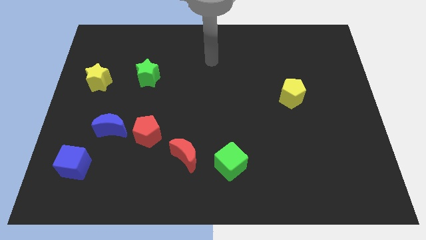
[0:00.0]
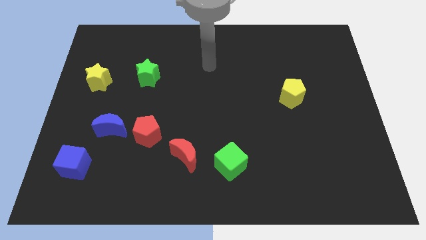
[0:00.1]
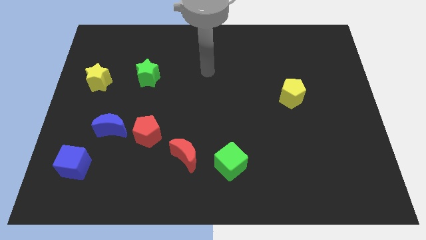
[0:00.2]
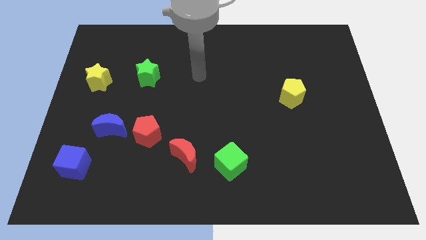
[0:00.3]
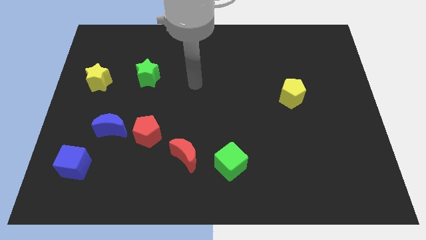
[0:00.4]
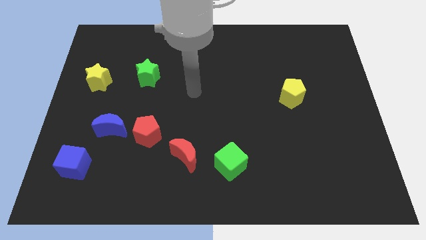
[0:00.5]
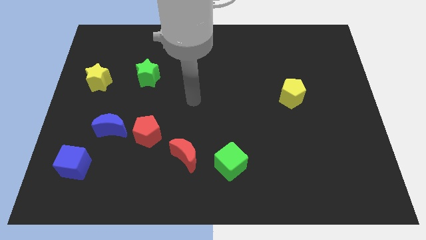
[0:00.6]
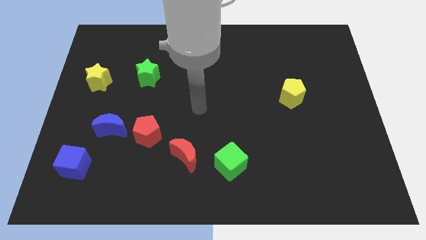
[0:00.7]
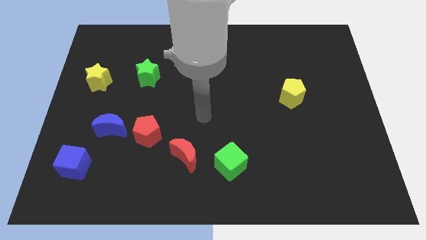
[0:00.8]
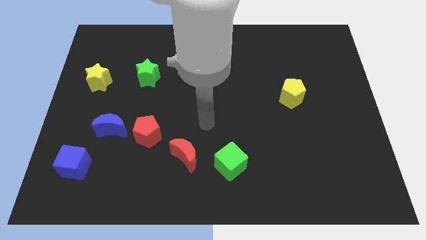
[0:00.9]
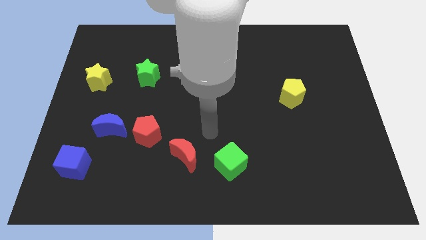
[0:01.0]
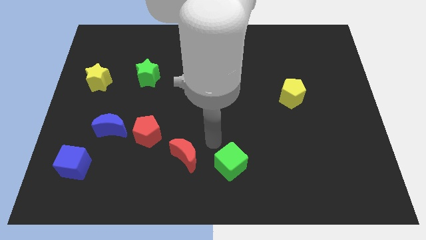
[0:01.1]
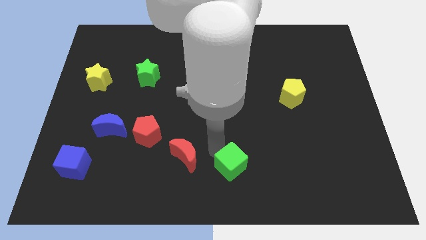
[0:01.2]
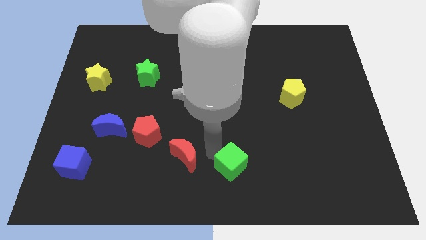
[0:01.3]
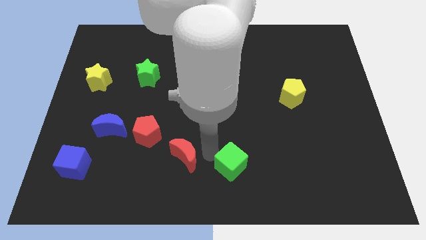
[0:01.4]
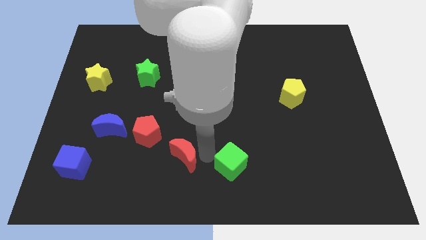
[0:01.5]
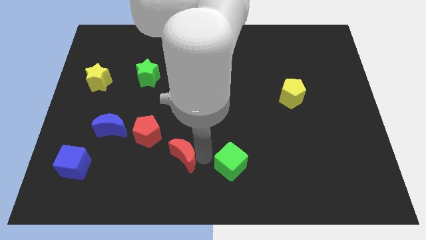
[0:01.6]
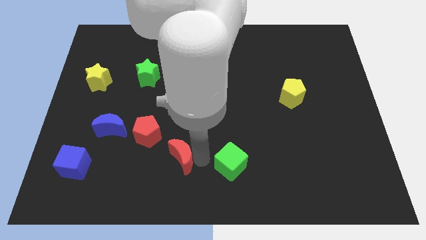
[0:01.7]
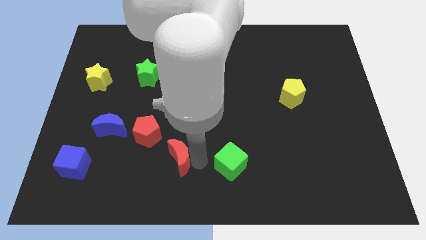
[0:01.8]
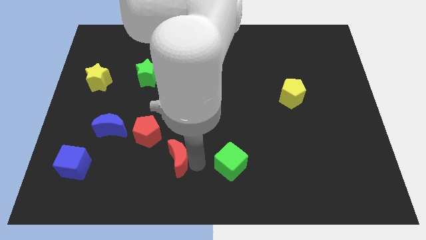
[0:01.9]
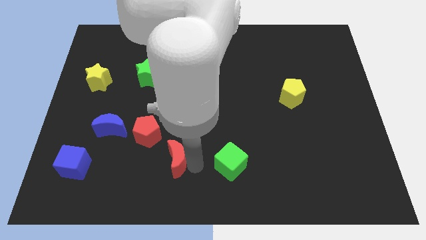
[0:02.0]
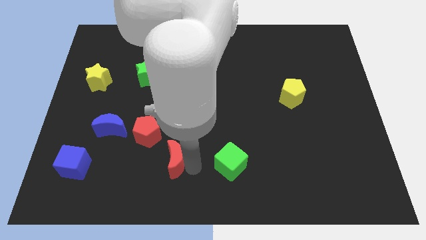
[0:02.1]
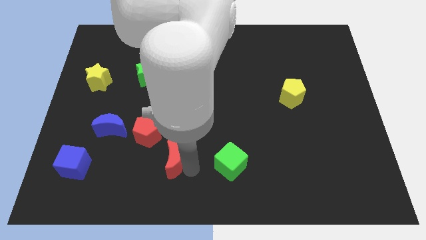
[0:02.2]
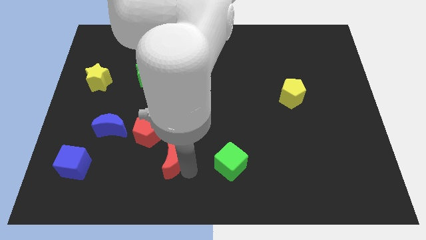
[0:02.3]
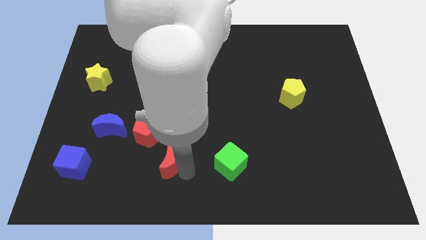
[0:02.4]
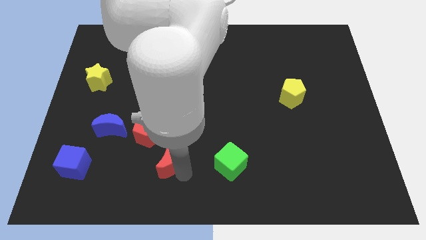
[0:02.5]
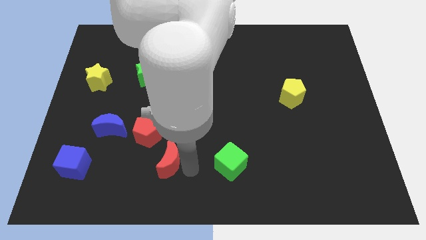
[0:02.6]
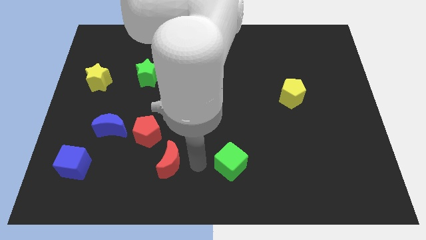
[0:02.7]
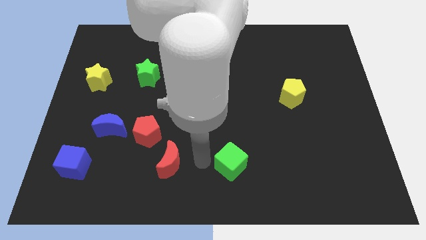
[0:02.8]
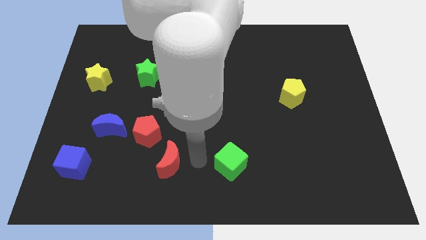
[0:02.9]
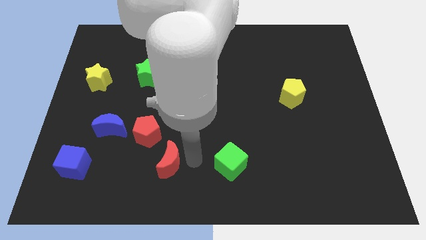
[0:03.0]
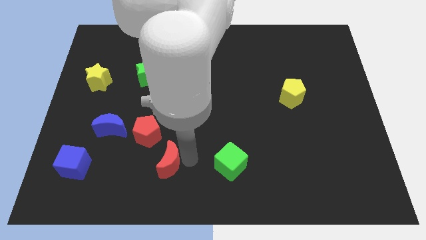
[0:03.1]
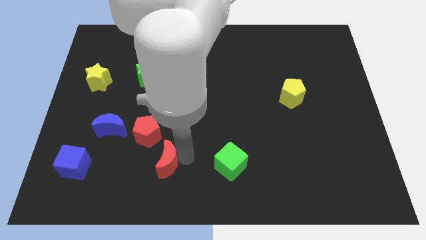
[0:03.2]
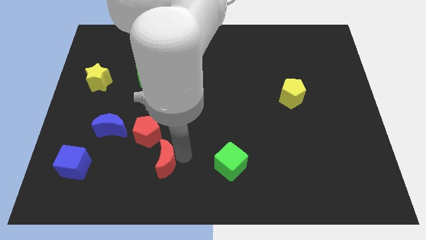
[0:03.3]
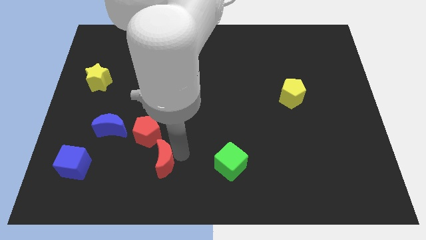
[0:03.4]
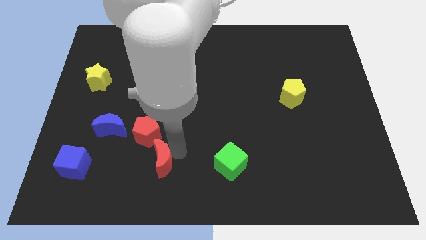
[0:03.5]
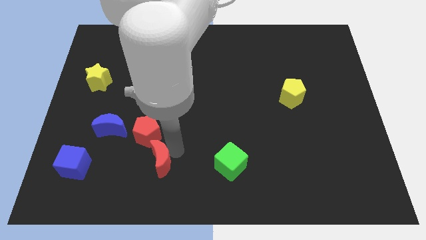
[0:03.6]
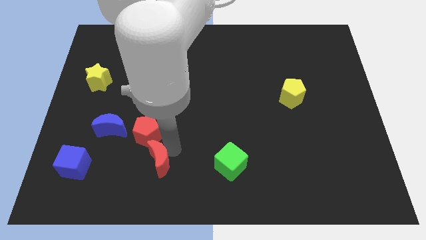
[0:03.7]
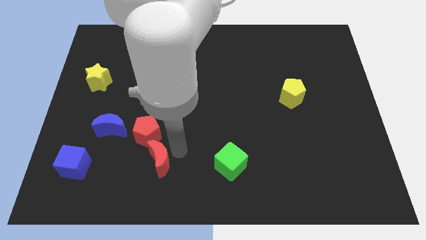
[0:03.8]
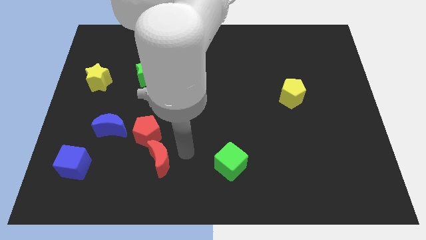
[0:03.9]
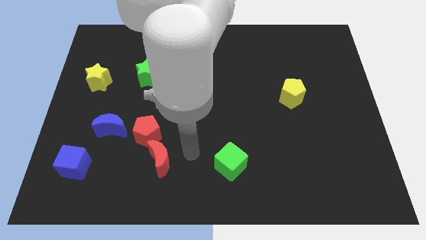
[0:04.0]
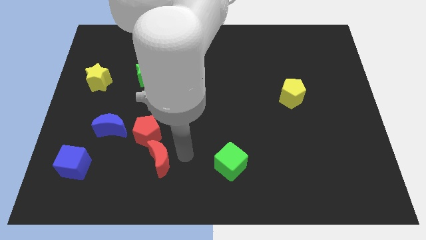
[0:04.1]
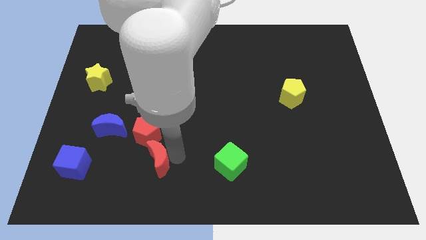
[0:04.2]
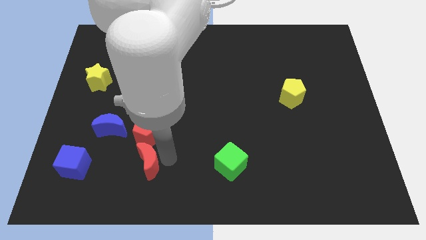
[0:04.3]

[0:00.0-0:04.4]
slightly move the red moon to the left

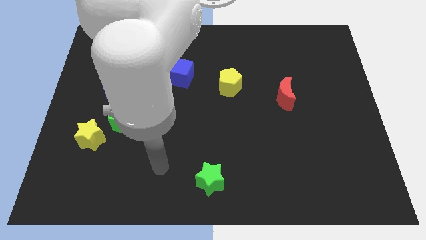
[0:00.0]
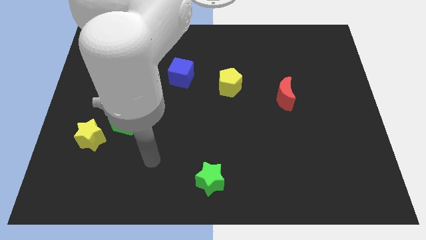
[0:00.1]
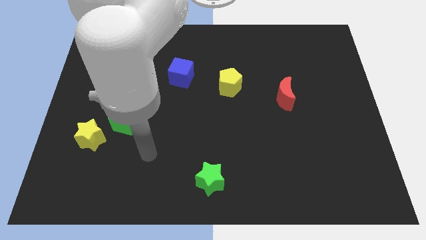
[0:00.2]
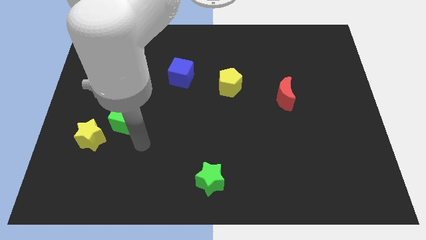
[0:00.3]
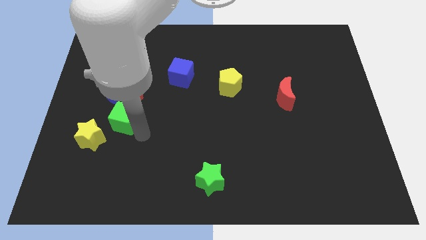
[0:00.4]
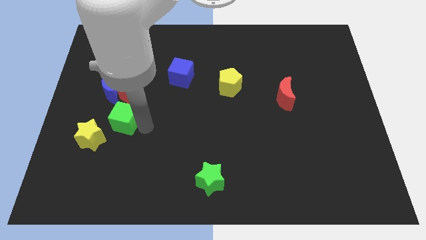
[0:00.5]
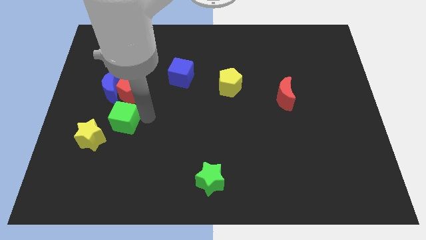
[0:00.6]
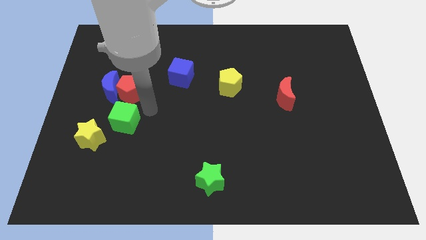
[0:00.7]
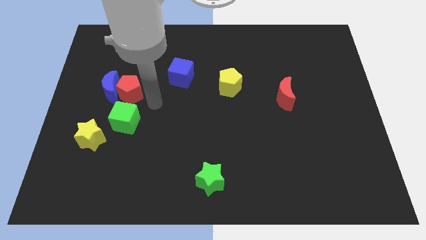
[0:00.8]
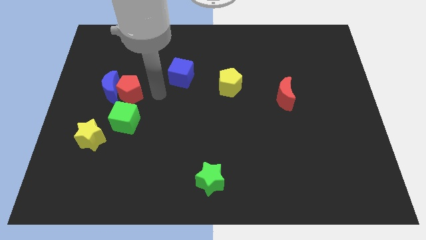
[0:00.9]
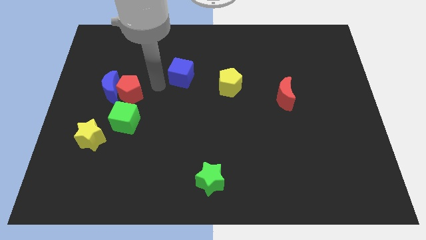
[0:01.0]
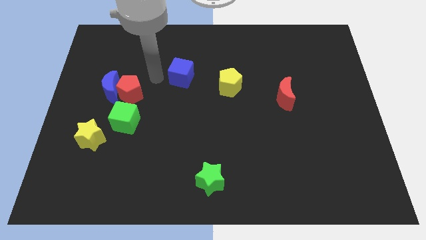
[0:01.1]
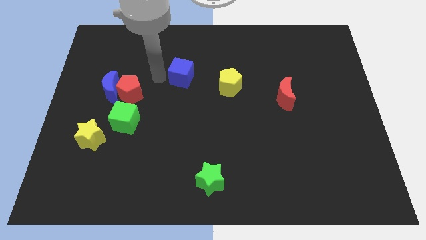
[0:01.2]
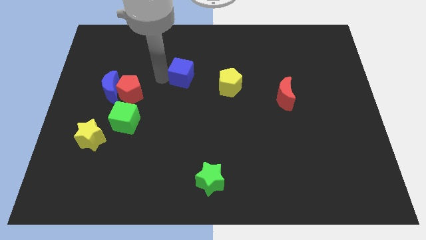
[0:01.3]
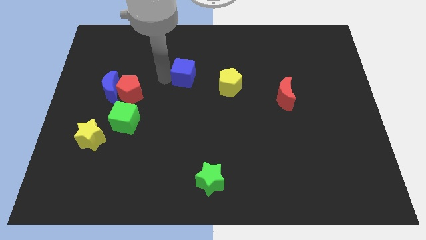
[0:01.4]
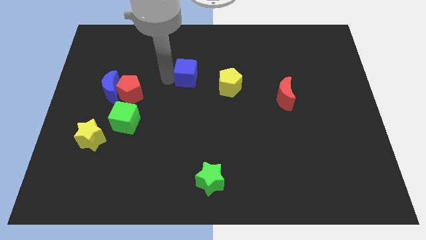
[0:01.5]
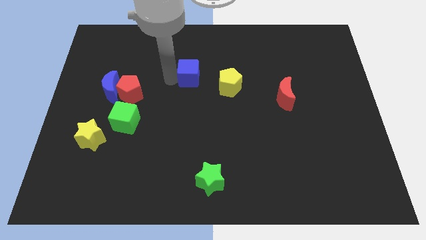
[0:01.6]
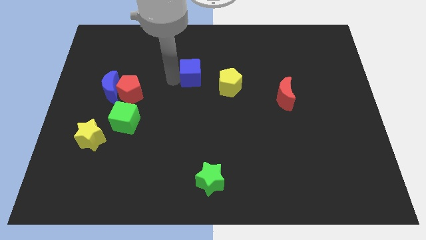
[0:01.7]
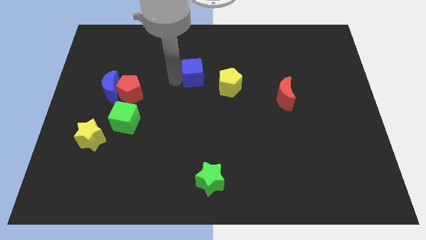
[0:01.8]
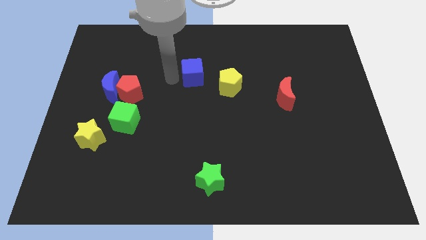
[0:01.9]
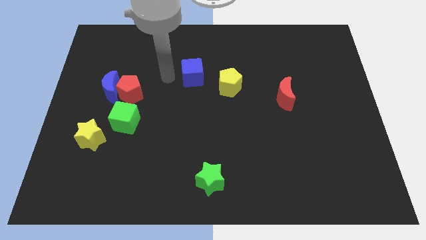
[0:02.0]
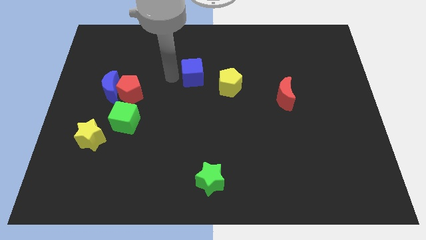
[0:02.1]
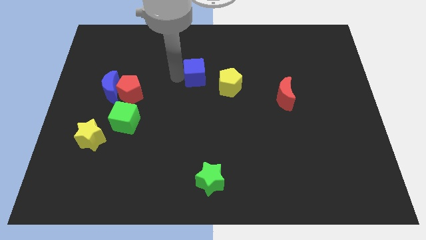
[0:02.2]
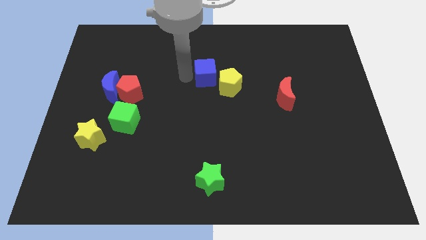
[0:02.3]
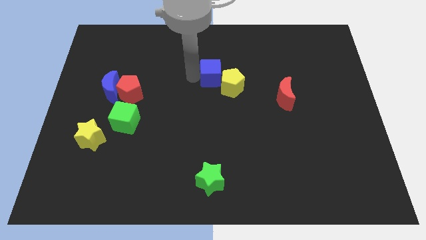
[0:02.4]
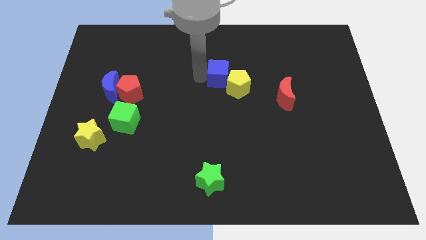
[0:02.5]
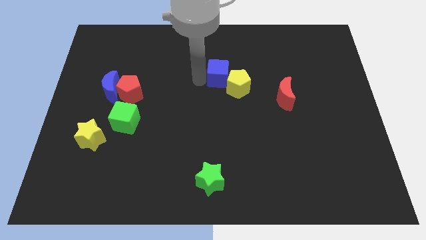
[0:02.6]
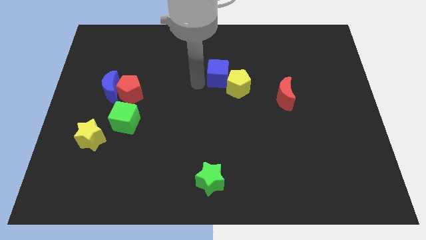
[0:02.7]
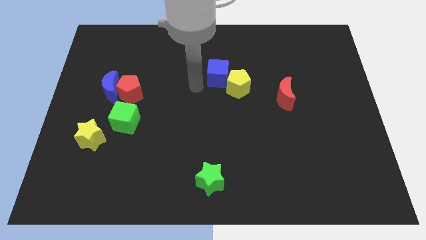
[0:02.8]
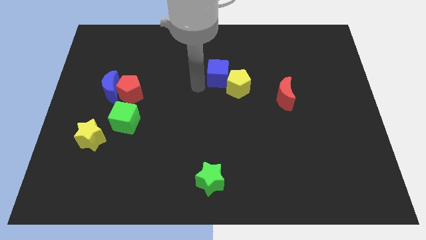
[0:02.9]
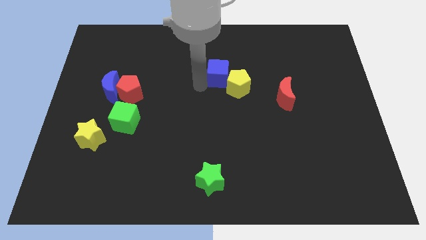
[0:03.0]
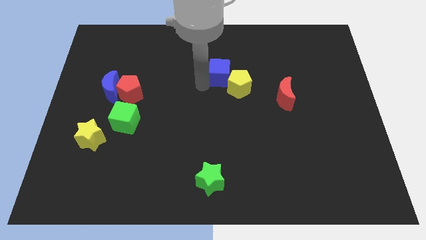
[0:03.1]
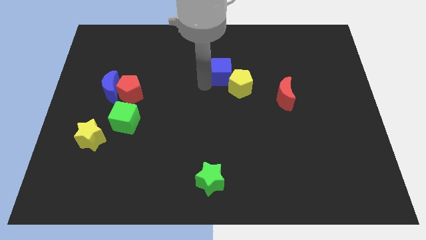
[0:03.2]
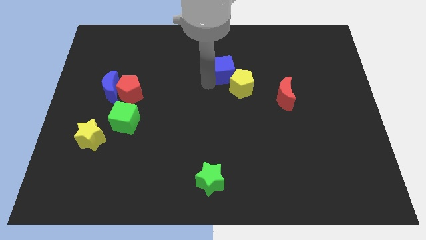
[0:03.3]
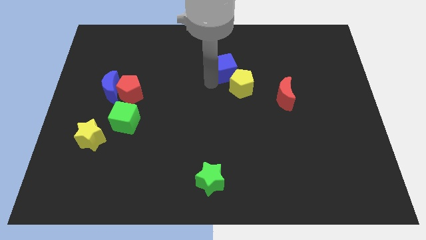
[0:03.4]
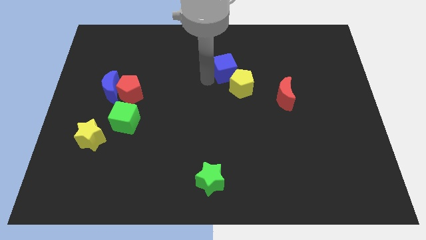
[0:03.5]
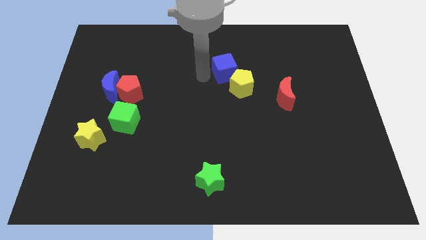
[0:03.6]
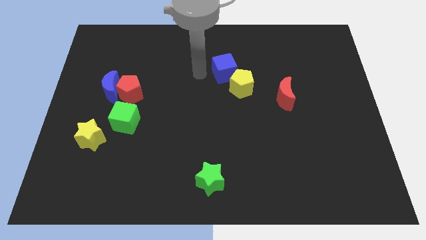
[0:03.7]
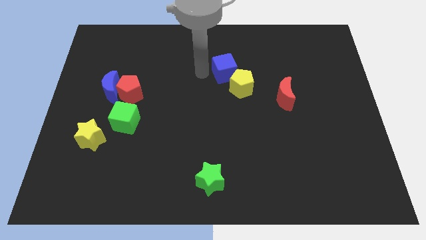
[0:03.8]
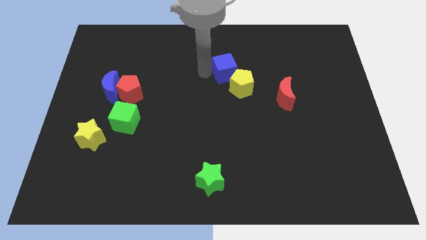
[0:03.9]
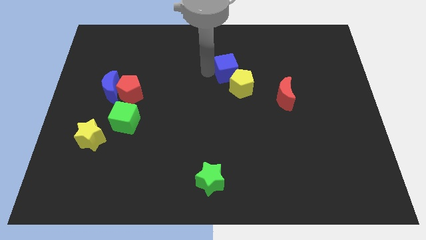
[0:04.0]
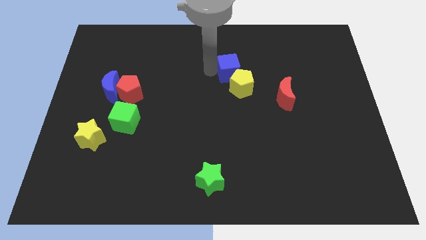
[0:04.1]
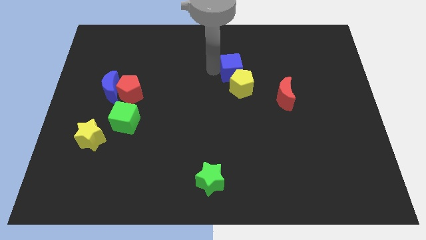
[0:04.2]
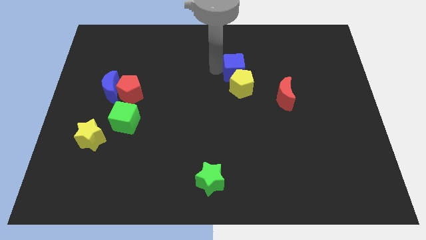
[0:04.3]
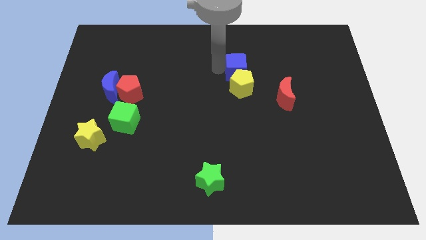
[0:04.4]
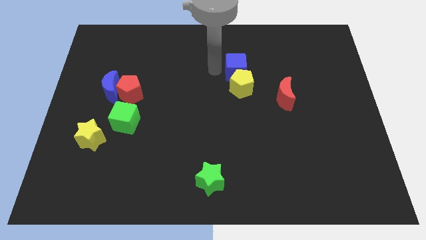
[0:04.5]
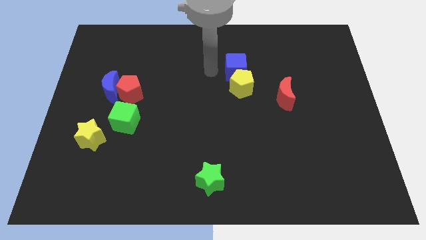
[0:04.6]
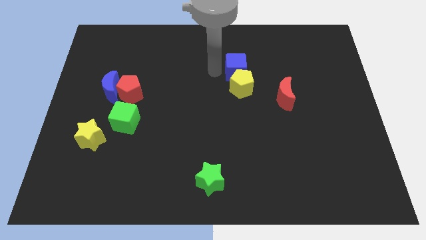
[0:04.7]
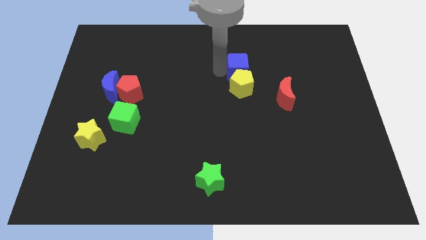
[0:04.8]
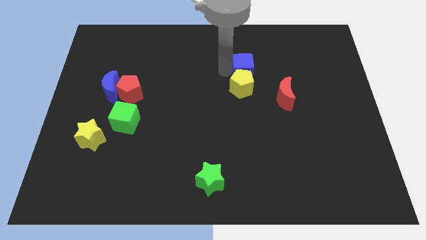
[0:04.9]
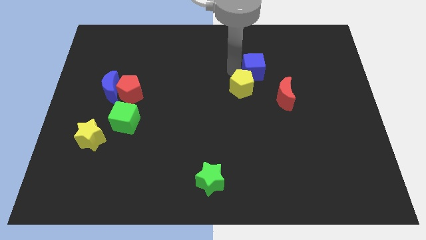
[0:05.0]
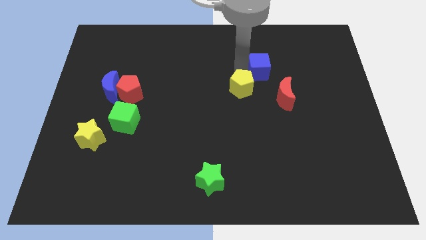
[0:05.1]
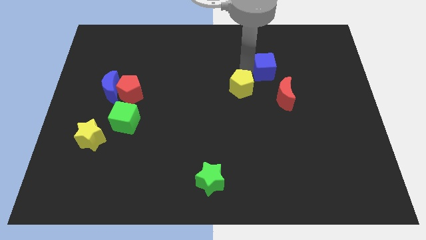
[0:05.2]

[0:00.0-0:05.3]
push the blue cube to the right
